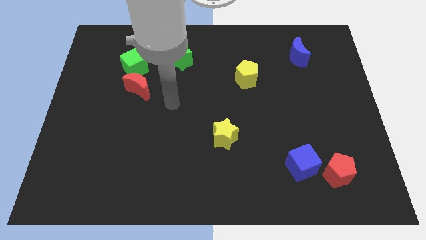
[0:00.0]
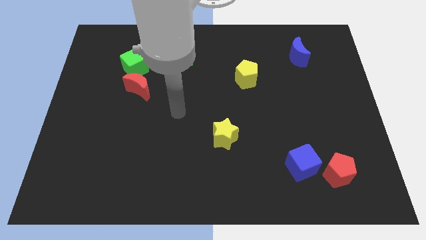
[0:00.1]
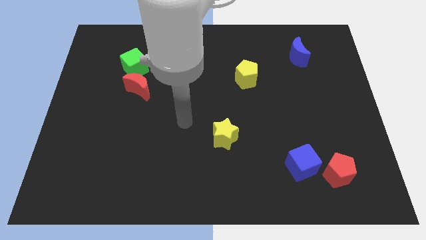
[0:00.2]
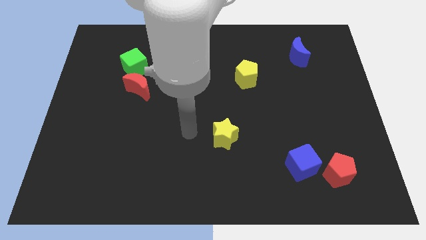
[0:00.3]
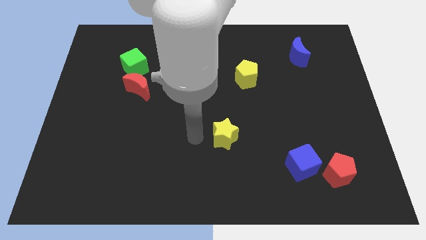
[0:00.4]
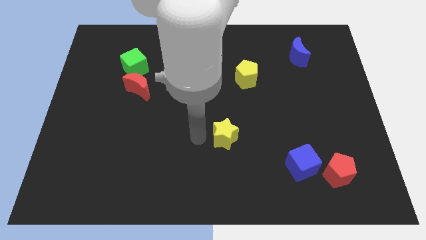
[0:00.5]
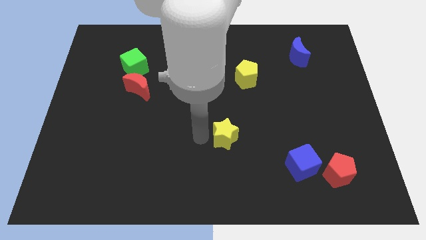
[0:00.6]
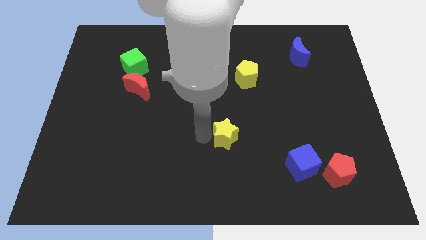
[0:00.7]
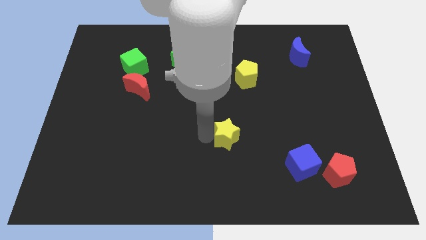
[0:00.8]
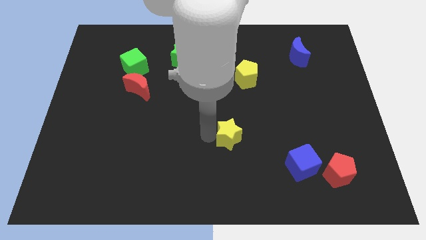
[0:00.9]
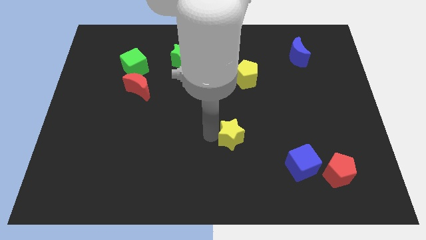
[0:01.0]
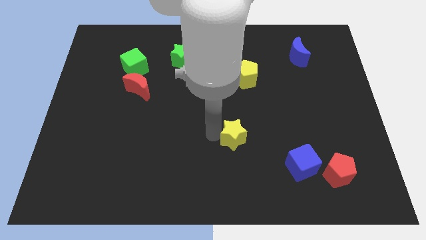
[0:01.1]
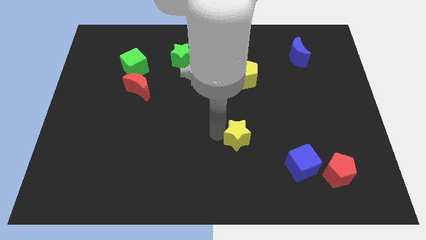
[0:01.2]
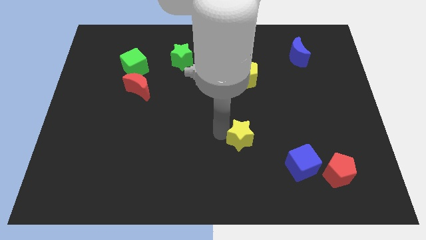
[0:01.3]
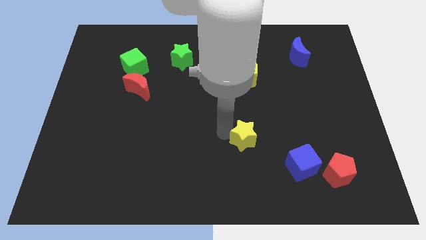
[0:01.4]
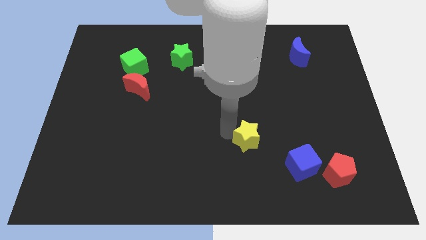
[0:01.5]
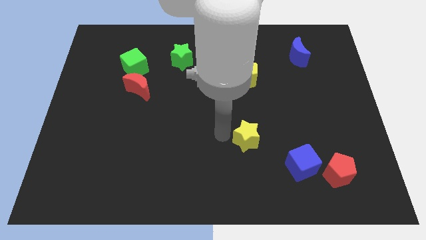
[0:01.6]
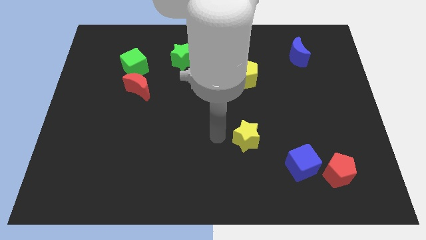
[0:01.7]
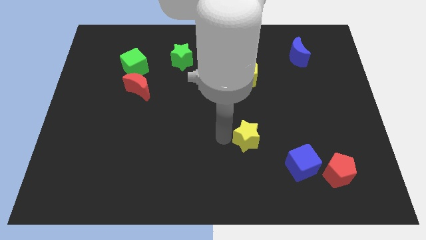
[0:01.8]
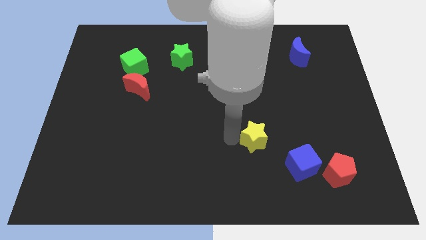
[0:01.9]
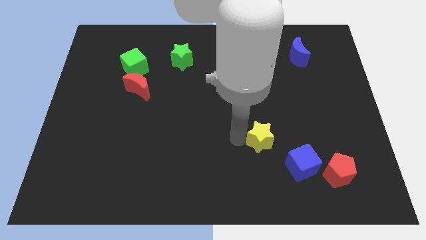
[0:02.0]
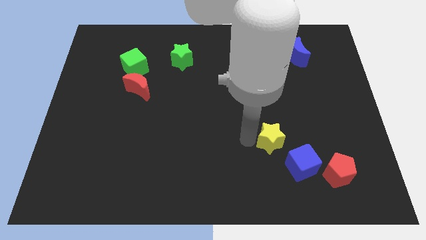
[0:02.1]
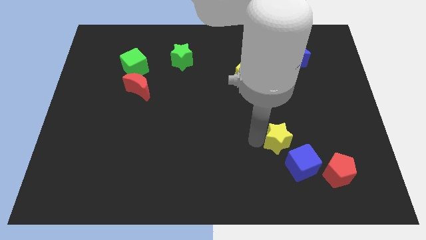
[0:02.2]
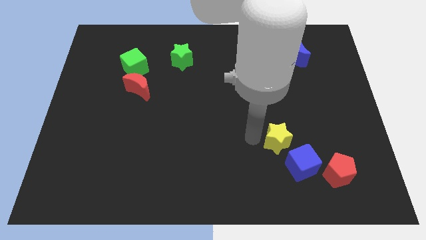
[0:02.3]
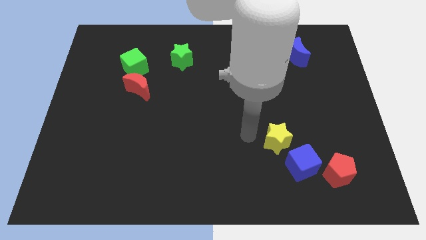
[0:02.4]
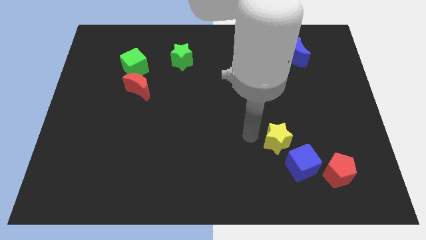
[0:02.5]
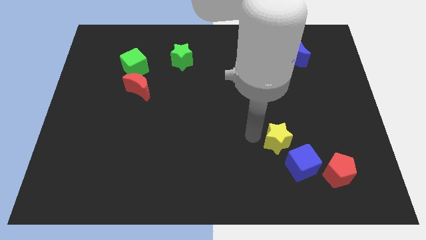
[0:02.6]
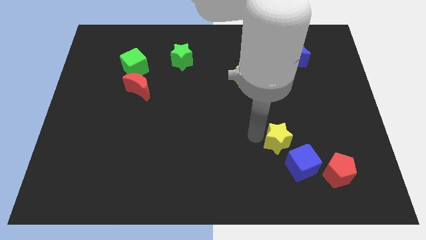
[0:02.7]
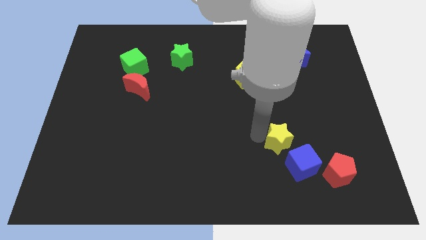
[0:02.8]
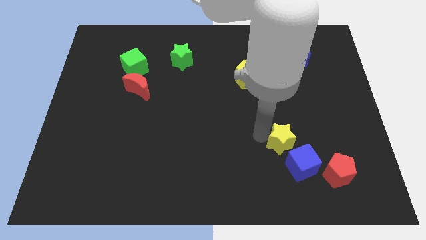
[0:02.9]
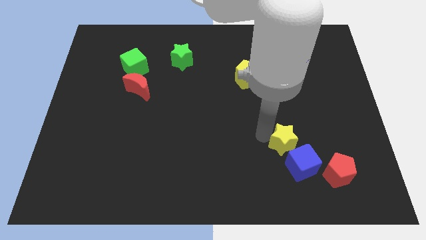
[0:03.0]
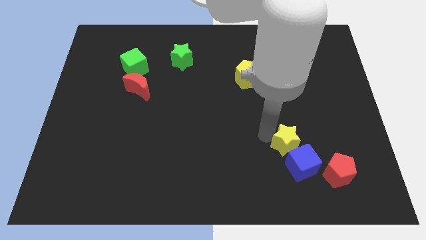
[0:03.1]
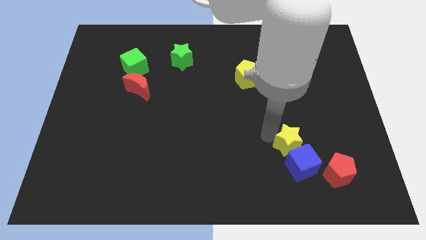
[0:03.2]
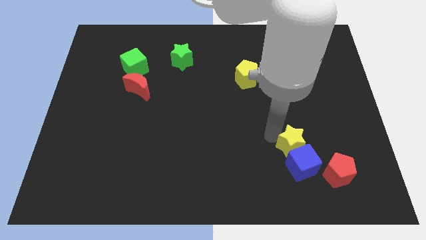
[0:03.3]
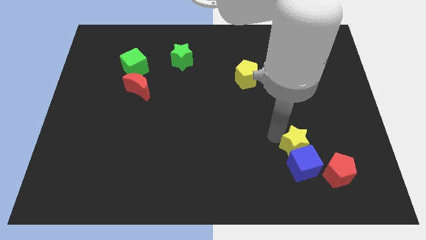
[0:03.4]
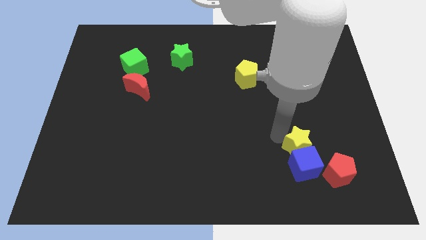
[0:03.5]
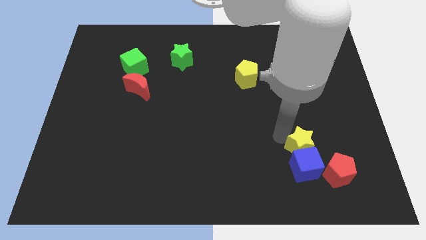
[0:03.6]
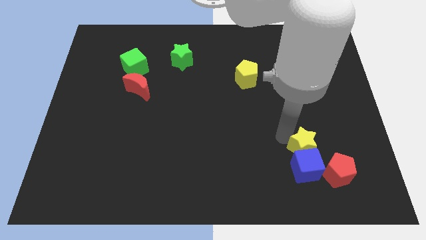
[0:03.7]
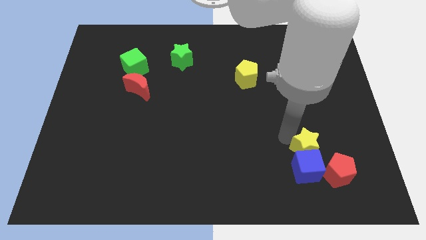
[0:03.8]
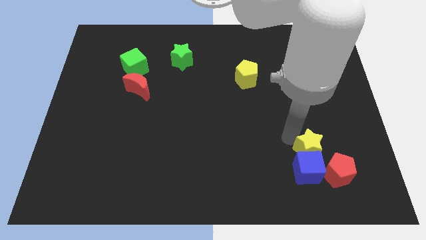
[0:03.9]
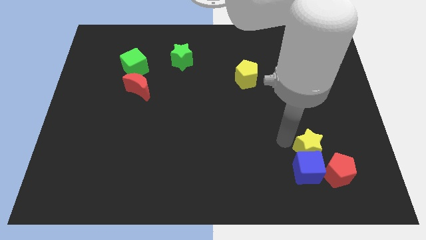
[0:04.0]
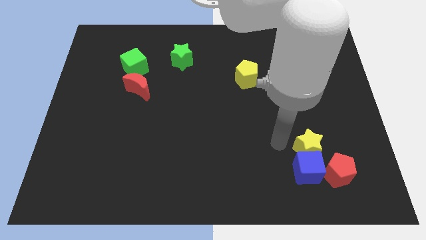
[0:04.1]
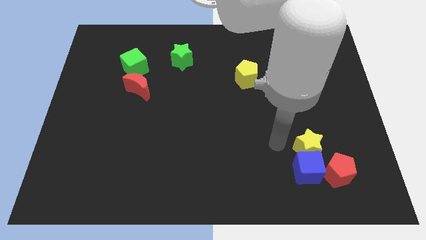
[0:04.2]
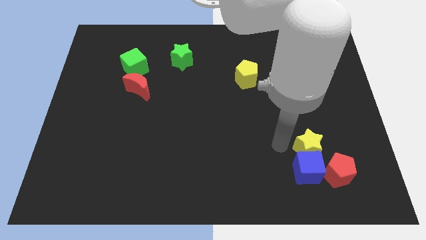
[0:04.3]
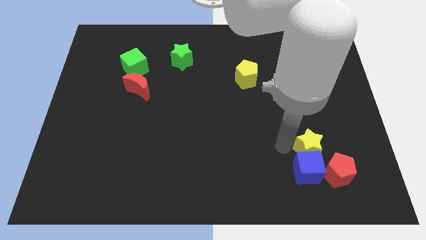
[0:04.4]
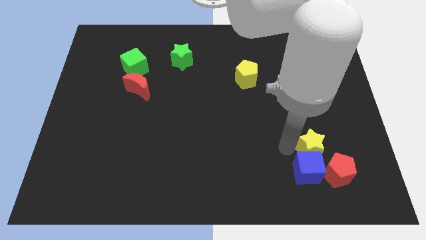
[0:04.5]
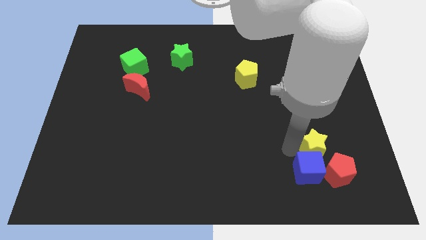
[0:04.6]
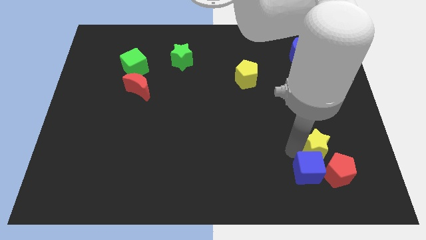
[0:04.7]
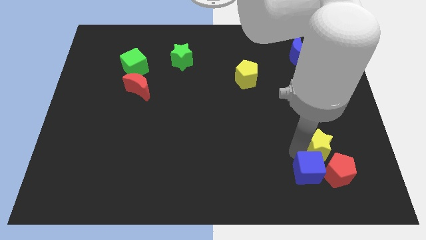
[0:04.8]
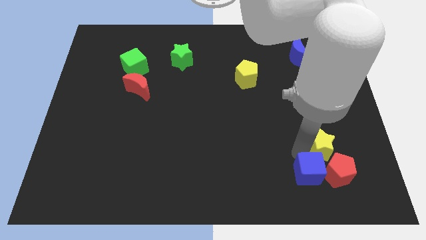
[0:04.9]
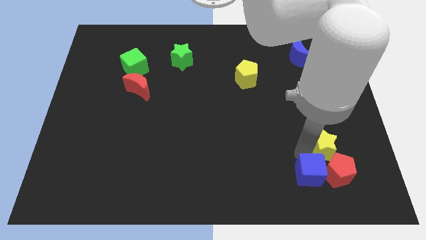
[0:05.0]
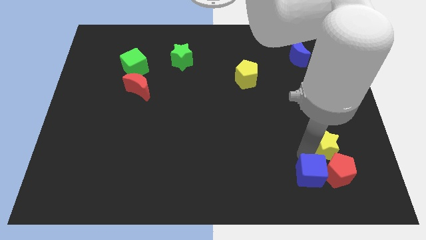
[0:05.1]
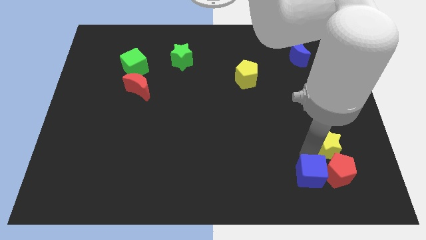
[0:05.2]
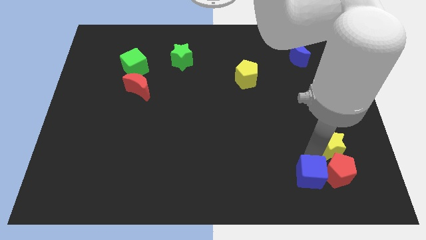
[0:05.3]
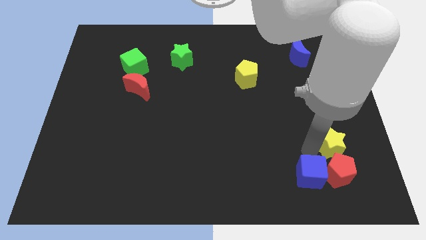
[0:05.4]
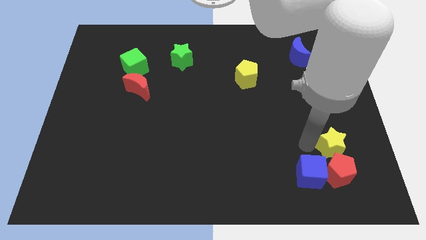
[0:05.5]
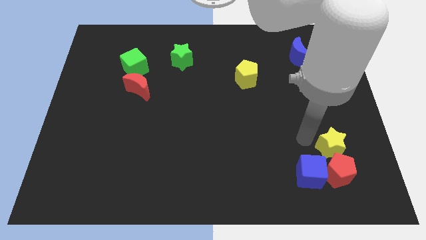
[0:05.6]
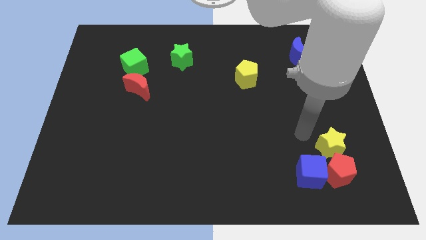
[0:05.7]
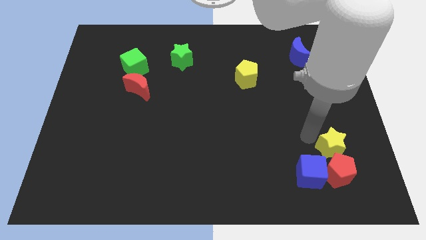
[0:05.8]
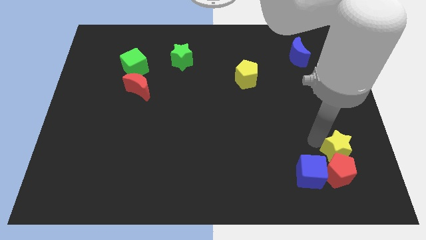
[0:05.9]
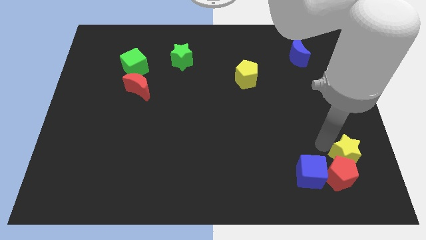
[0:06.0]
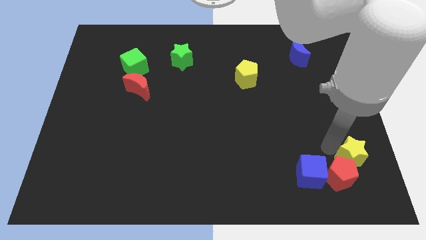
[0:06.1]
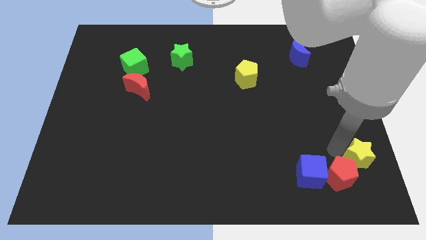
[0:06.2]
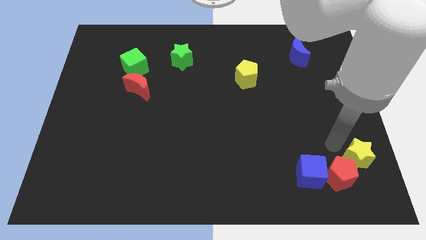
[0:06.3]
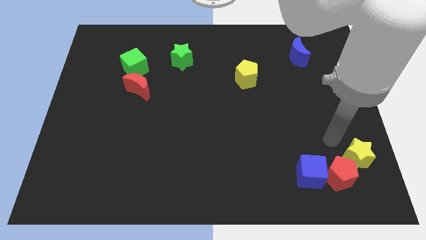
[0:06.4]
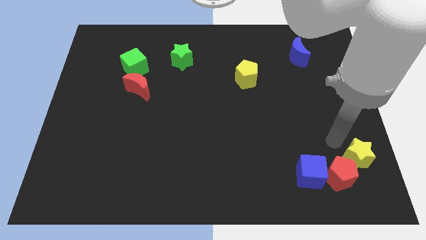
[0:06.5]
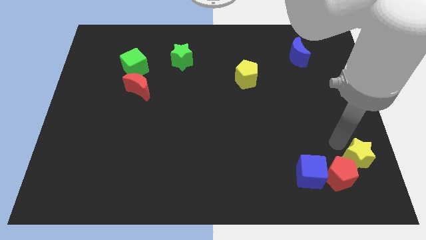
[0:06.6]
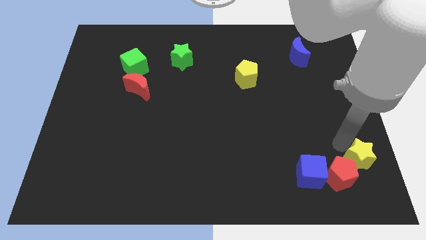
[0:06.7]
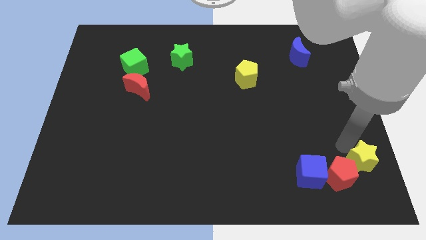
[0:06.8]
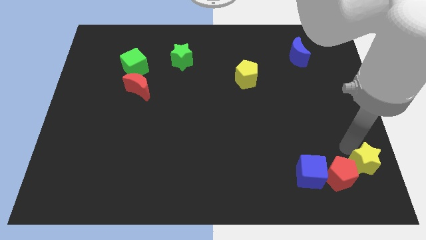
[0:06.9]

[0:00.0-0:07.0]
put the yellow star to the lower right corner
